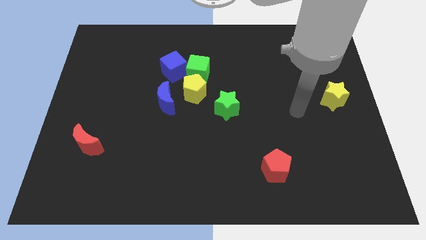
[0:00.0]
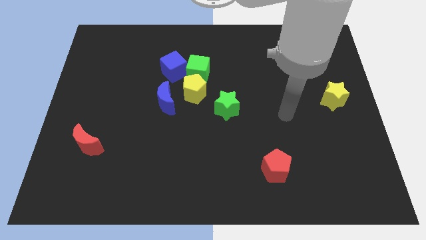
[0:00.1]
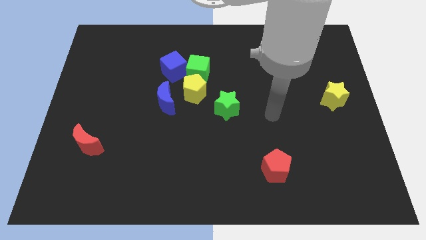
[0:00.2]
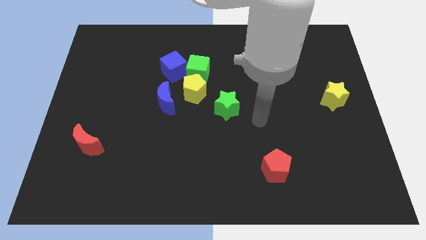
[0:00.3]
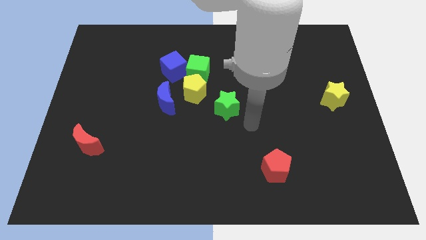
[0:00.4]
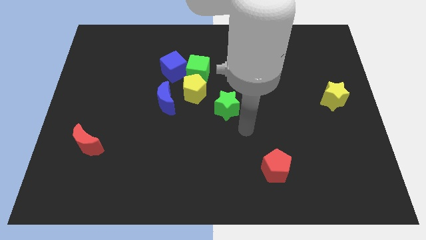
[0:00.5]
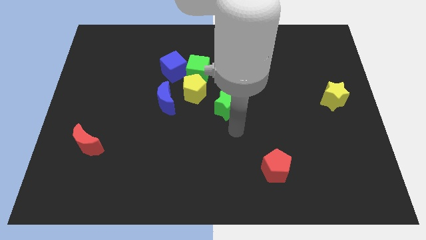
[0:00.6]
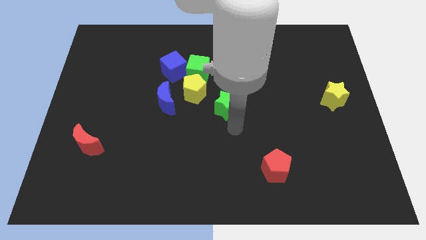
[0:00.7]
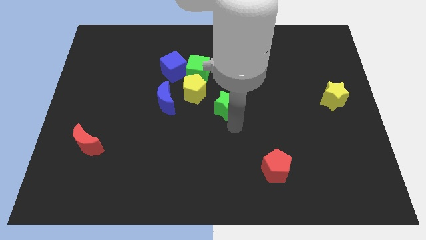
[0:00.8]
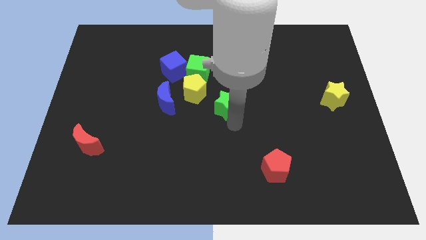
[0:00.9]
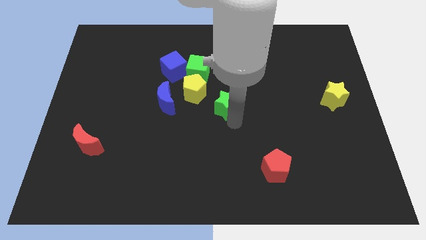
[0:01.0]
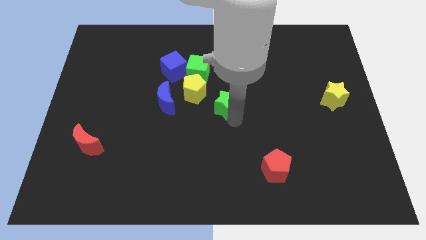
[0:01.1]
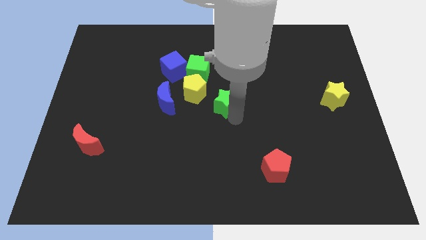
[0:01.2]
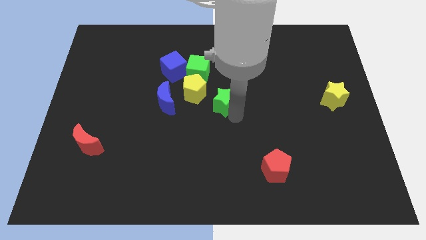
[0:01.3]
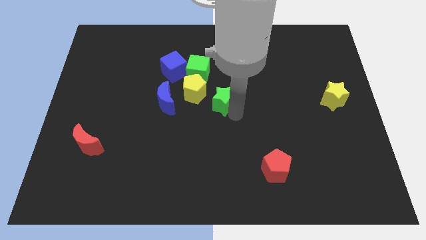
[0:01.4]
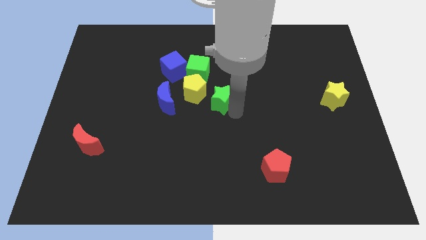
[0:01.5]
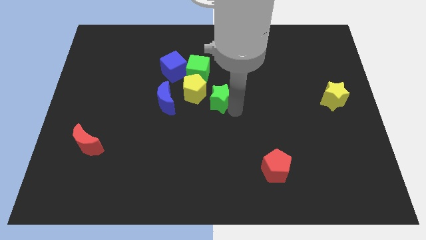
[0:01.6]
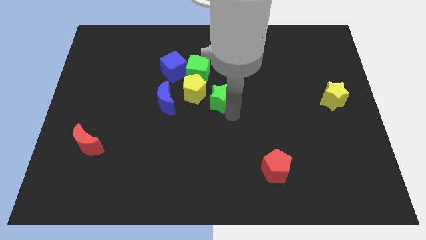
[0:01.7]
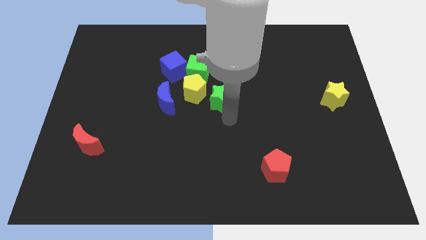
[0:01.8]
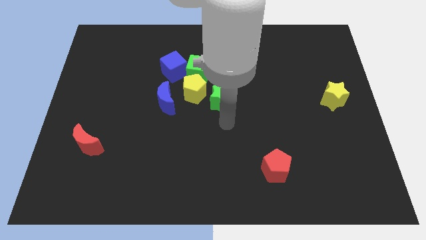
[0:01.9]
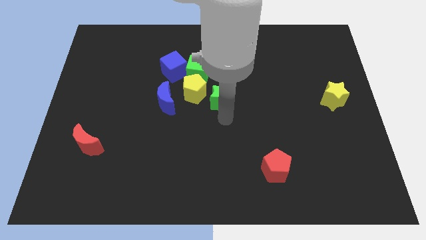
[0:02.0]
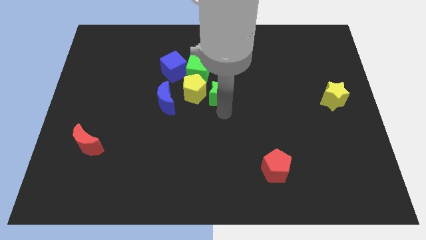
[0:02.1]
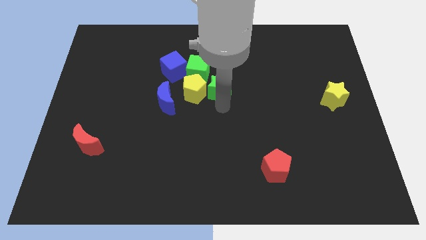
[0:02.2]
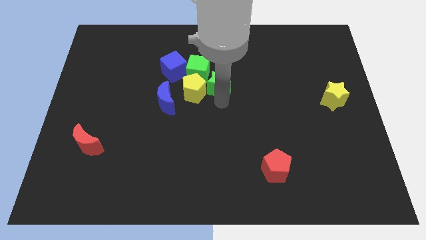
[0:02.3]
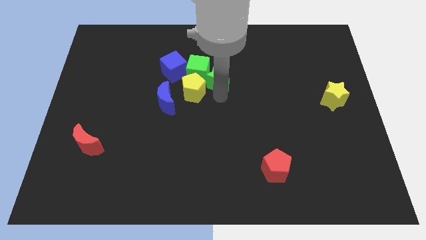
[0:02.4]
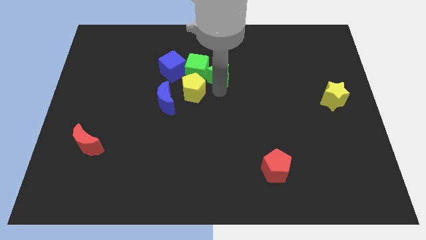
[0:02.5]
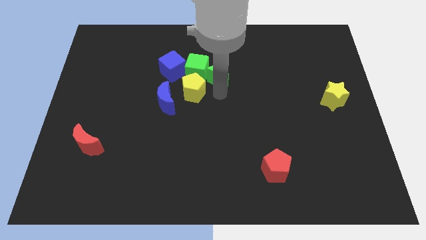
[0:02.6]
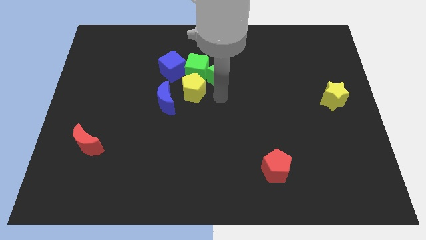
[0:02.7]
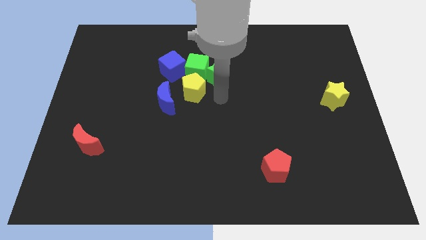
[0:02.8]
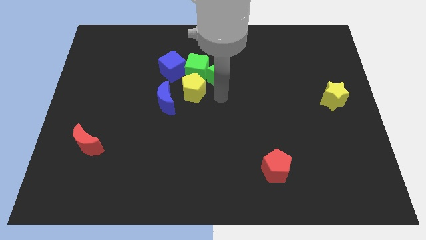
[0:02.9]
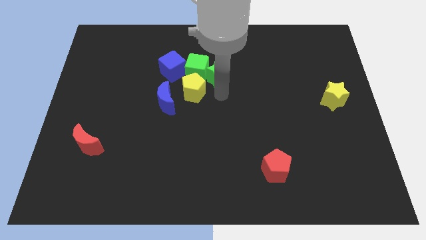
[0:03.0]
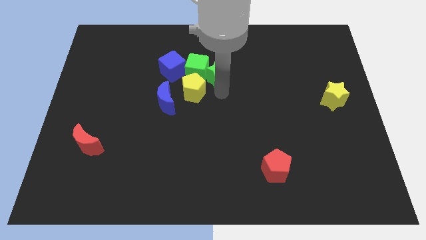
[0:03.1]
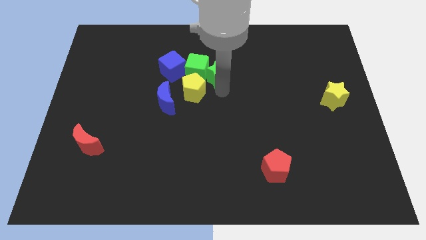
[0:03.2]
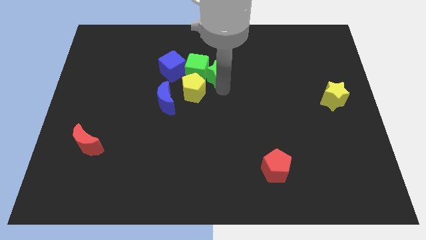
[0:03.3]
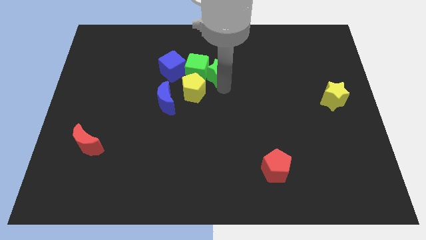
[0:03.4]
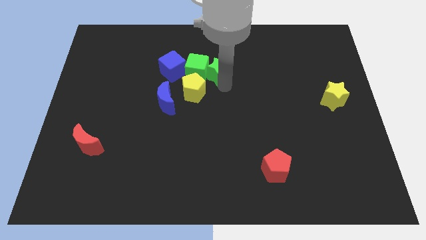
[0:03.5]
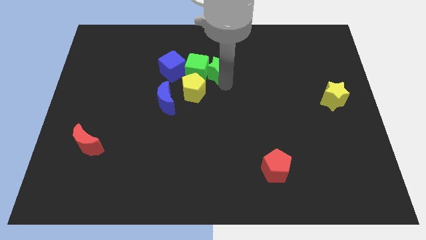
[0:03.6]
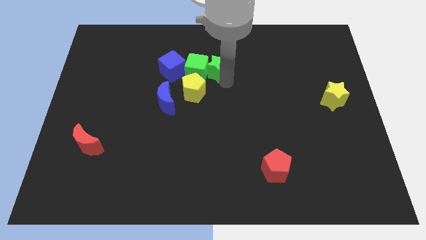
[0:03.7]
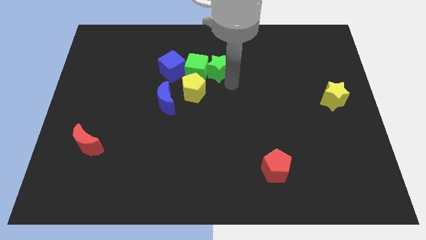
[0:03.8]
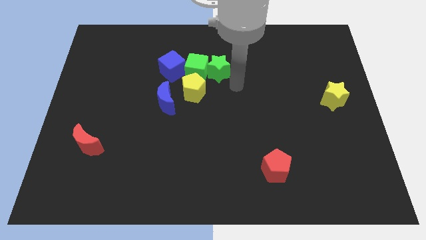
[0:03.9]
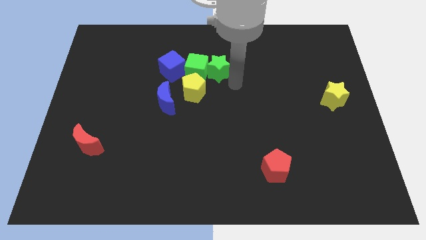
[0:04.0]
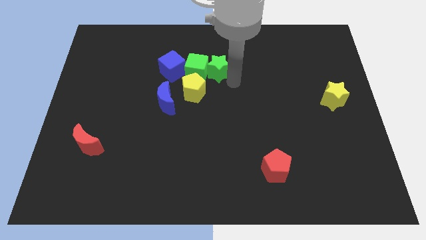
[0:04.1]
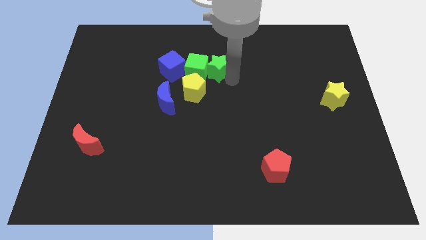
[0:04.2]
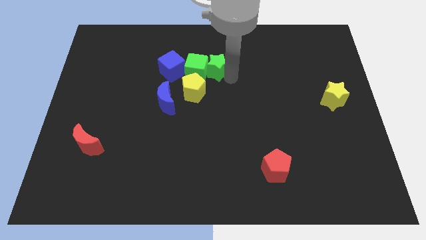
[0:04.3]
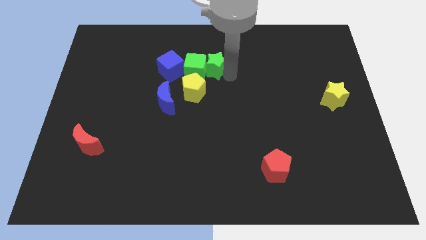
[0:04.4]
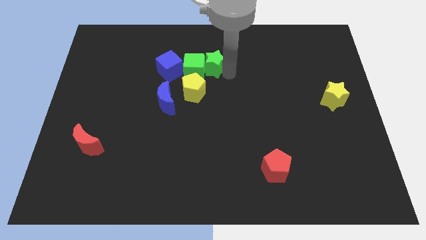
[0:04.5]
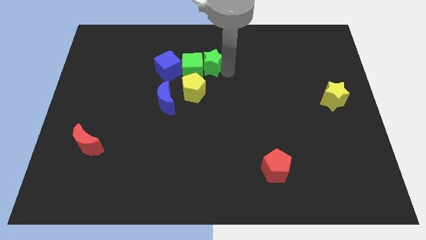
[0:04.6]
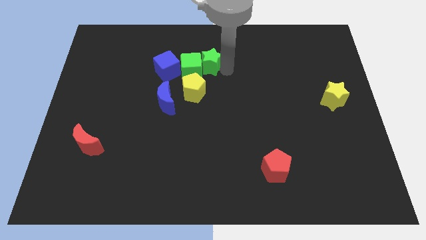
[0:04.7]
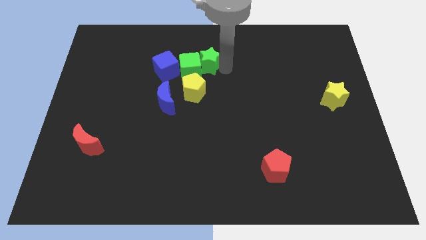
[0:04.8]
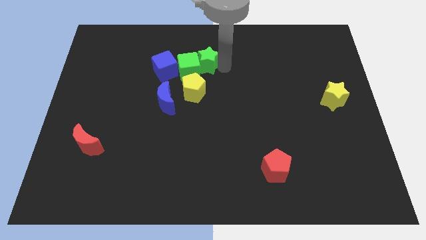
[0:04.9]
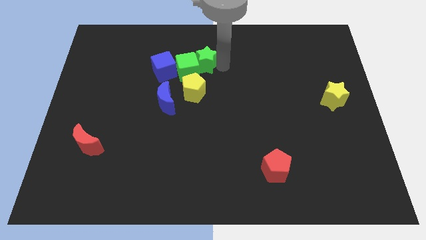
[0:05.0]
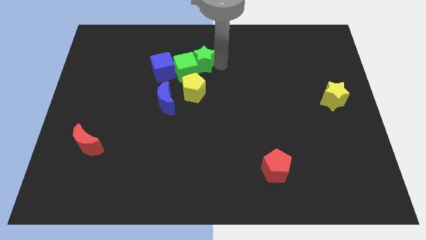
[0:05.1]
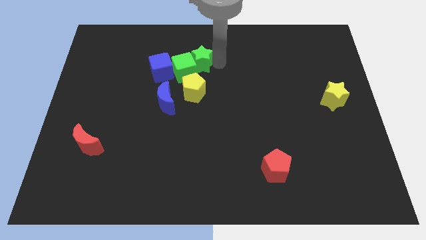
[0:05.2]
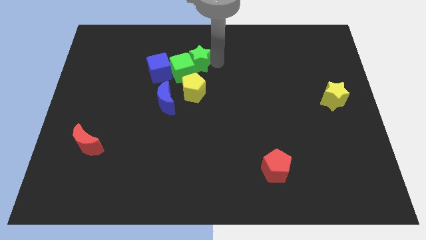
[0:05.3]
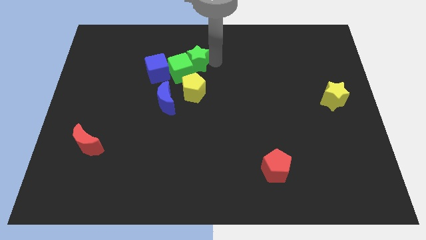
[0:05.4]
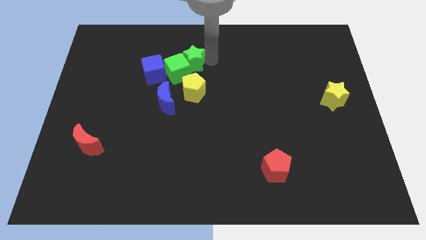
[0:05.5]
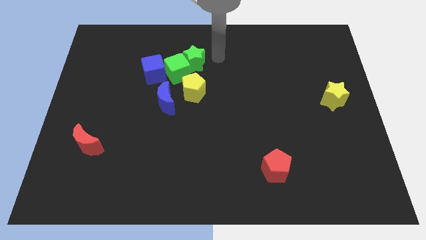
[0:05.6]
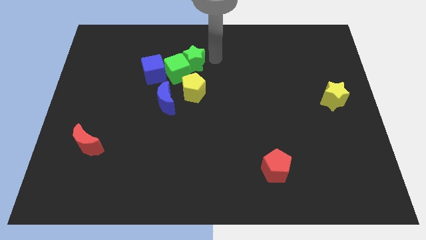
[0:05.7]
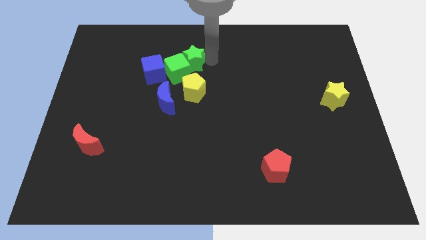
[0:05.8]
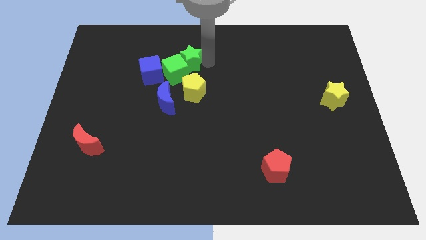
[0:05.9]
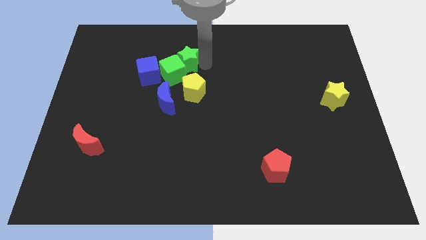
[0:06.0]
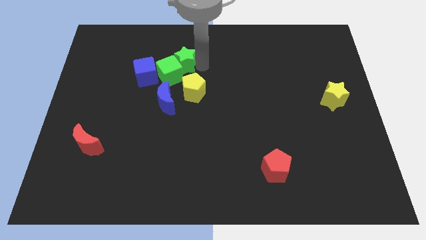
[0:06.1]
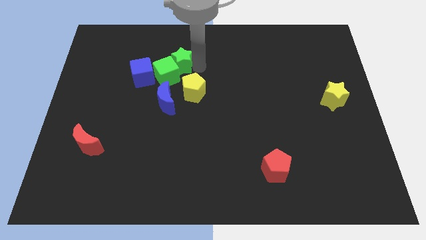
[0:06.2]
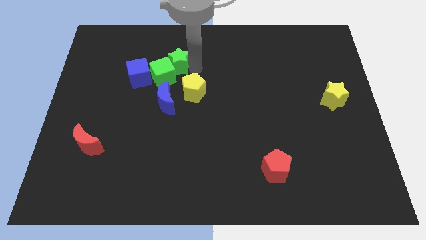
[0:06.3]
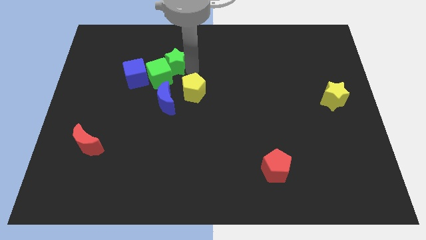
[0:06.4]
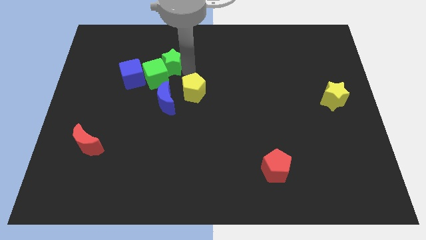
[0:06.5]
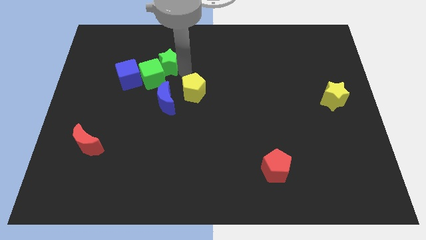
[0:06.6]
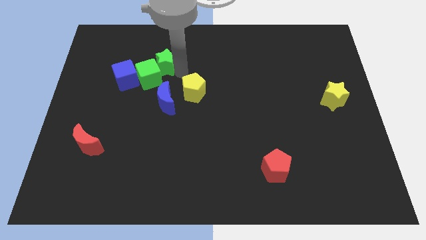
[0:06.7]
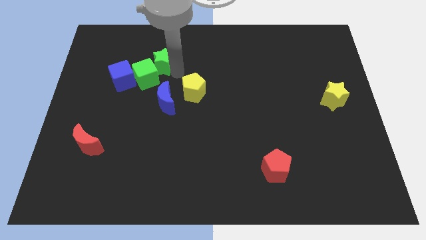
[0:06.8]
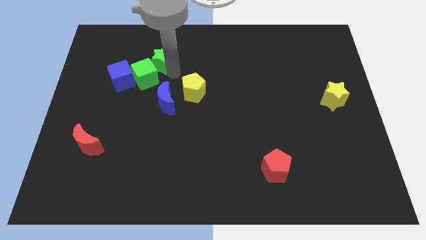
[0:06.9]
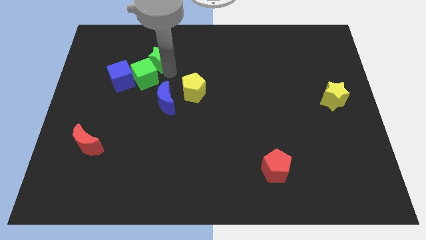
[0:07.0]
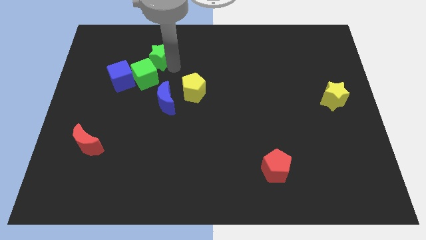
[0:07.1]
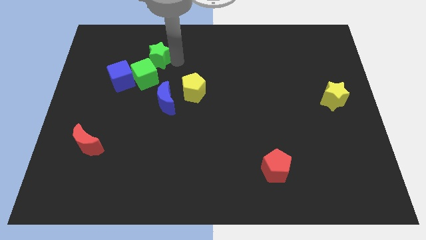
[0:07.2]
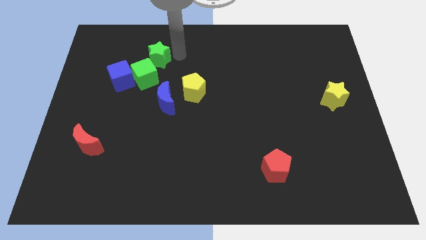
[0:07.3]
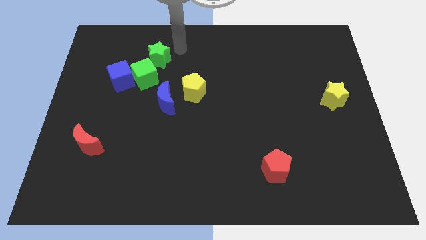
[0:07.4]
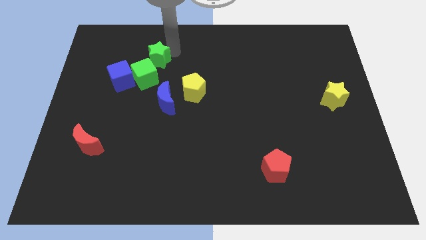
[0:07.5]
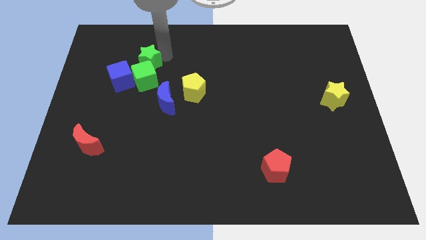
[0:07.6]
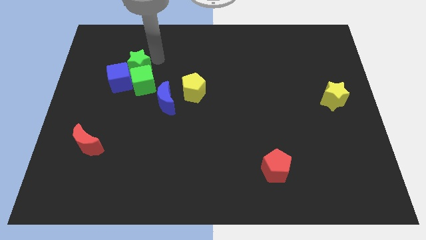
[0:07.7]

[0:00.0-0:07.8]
move the green star close to the blue cube
